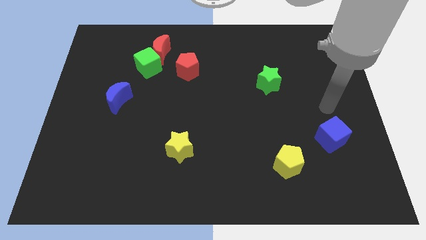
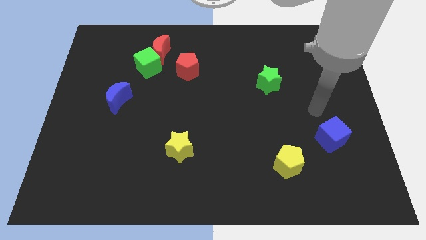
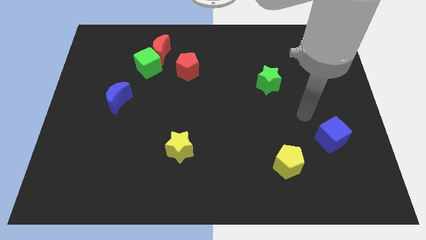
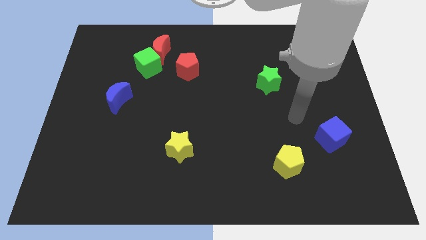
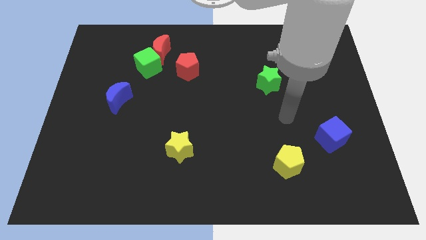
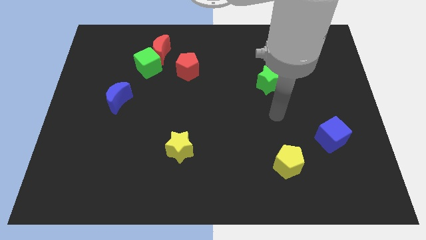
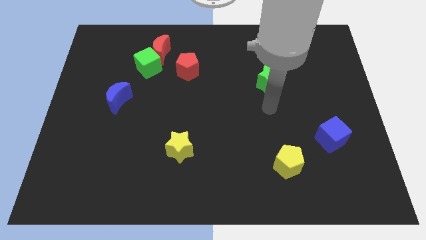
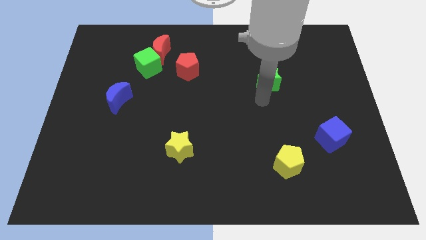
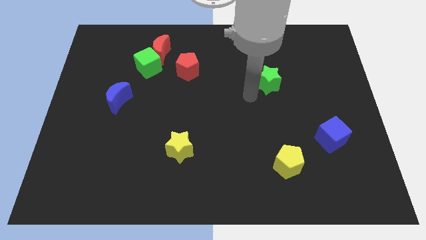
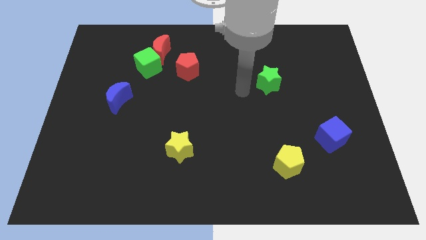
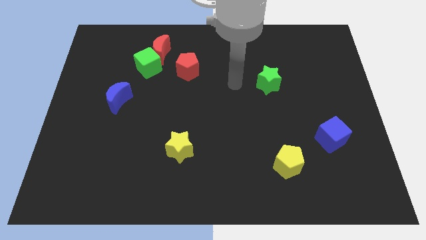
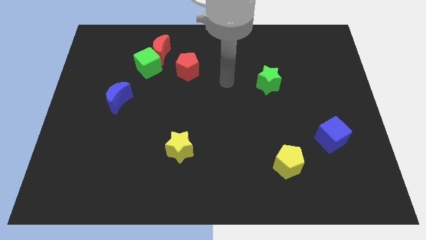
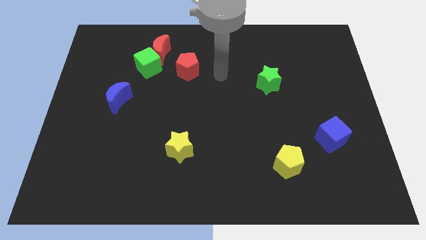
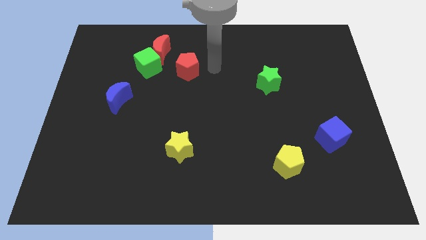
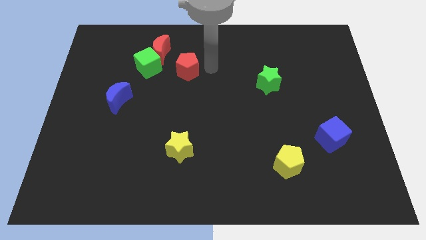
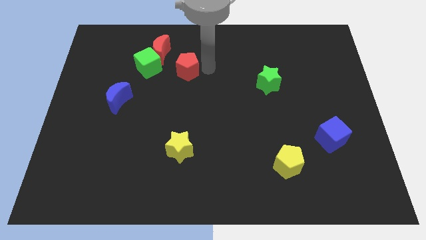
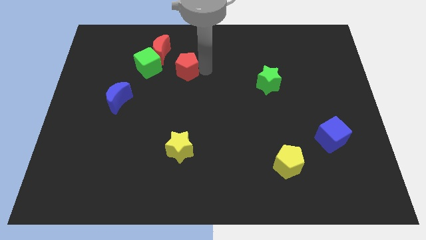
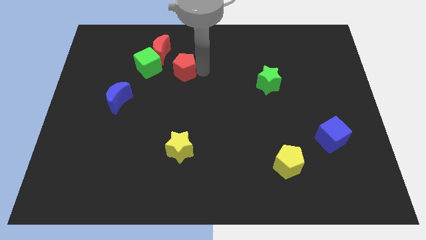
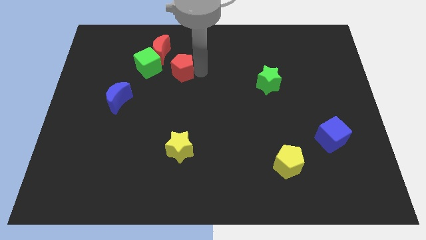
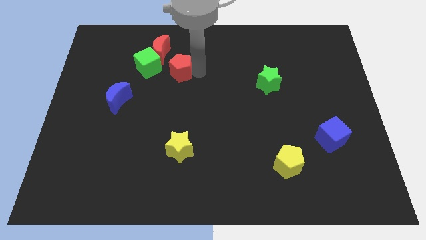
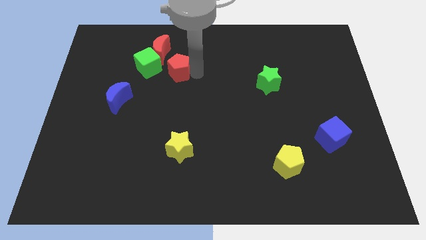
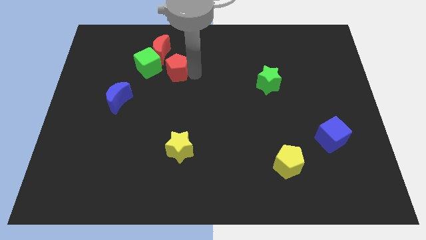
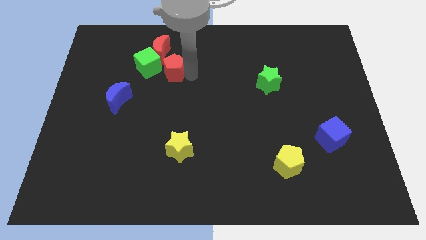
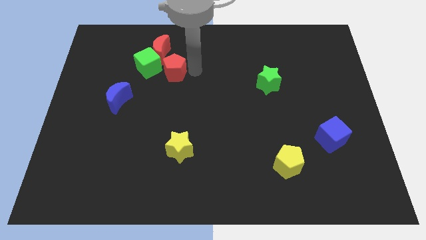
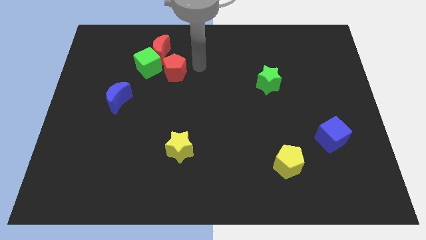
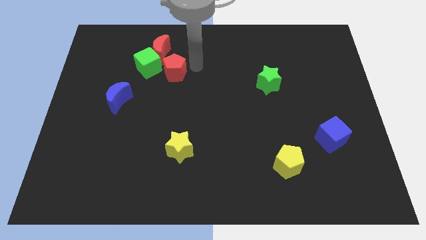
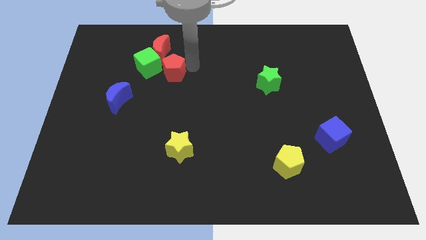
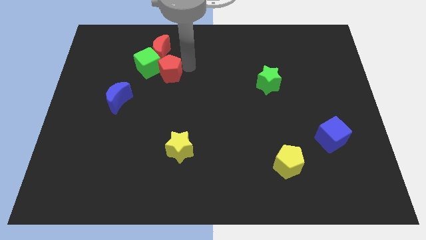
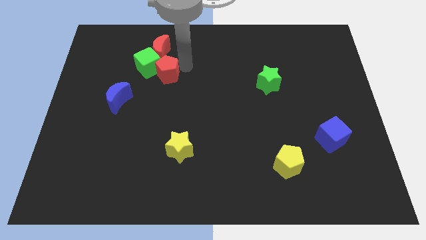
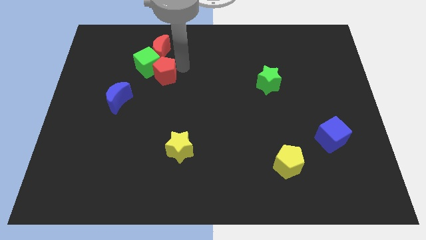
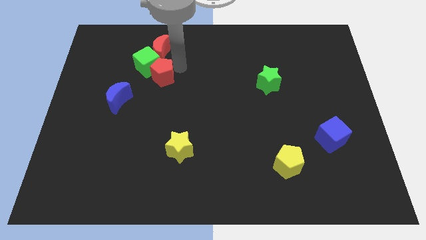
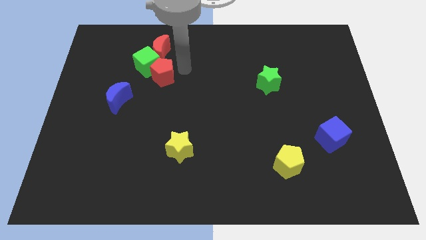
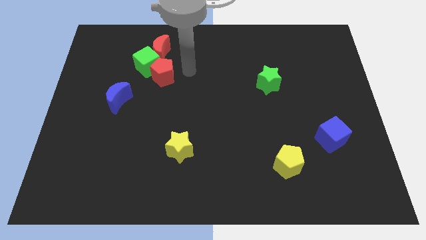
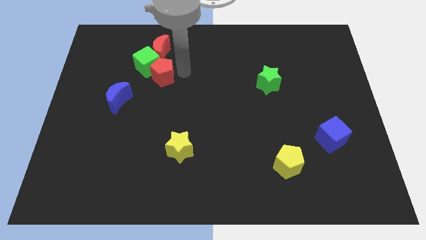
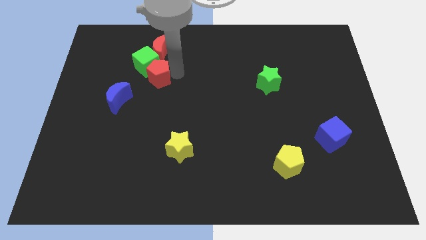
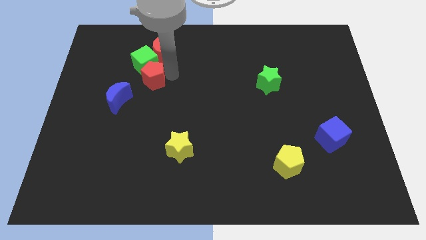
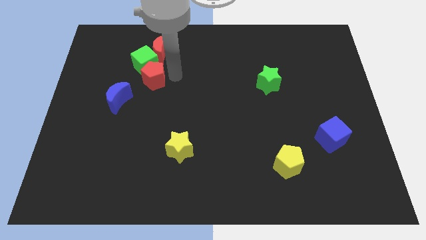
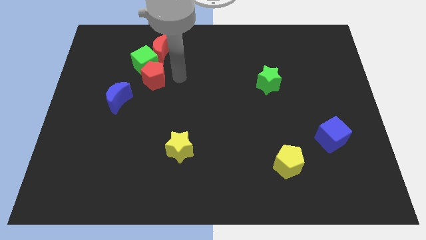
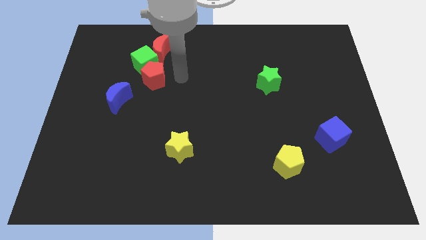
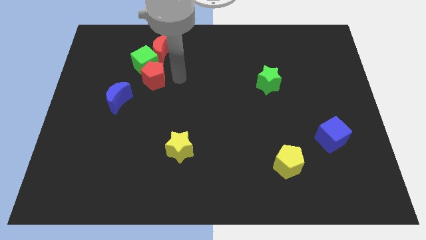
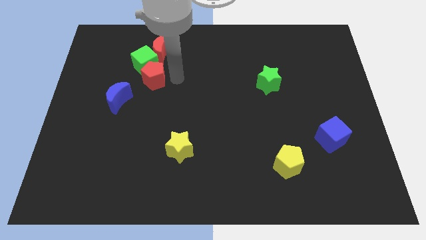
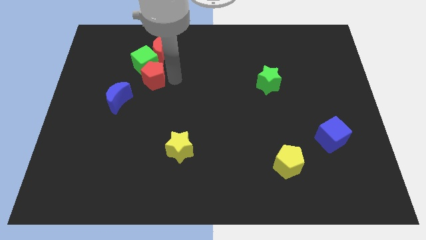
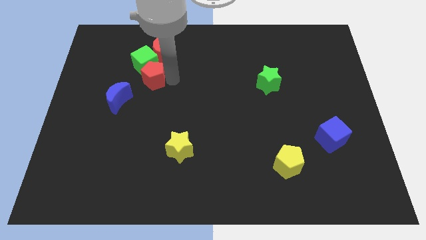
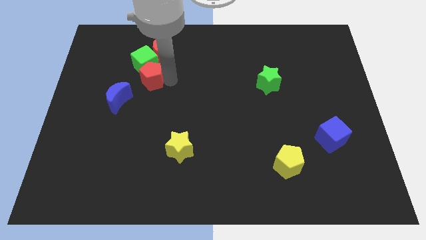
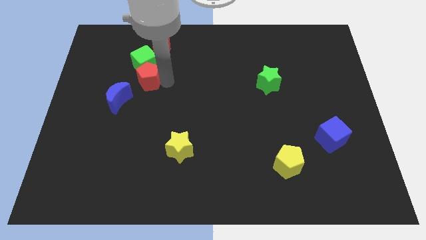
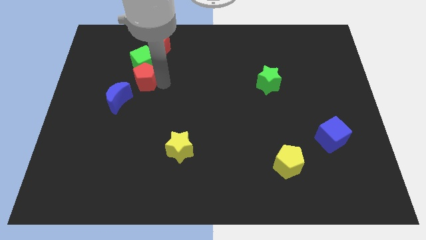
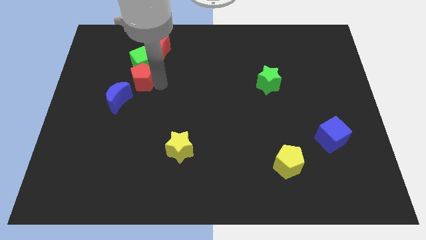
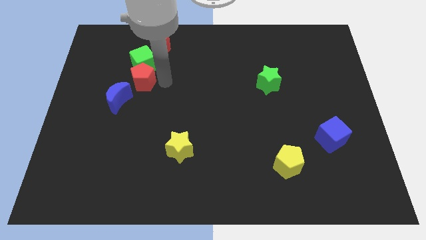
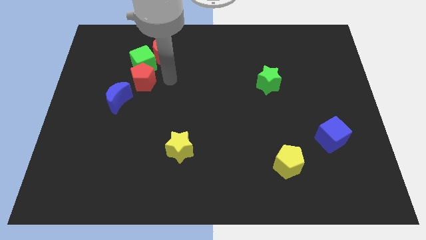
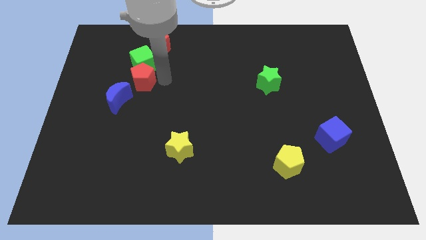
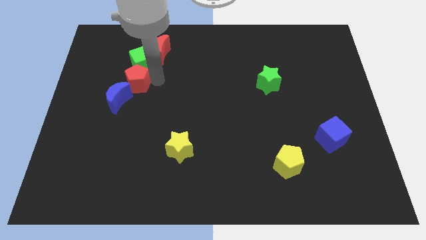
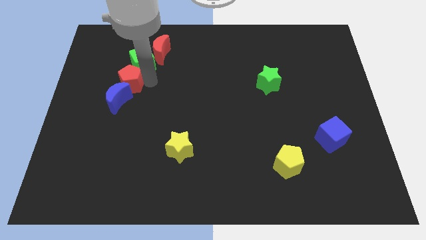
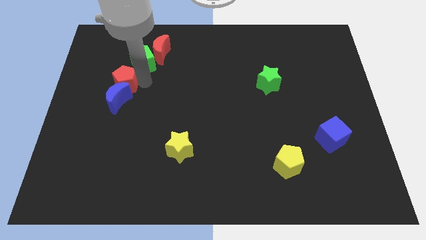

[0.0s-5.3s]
push the red pentagon diagonally up and to the left of the blue moon

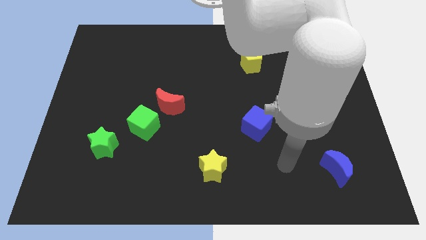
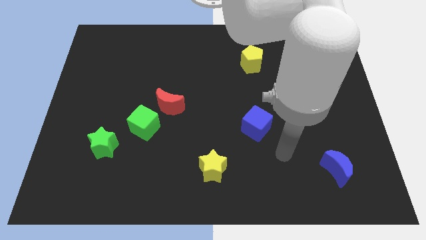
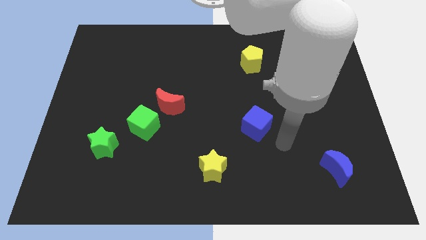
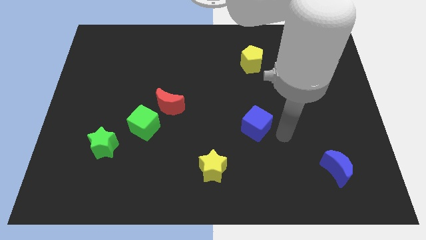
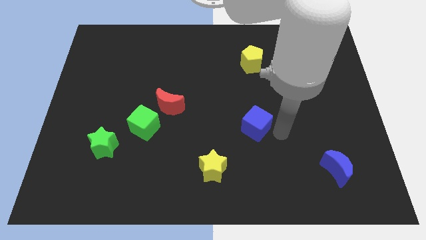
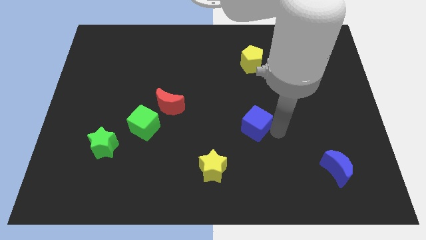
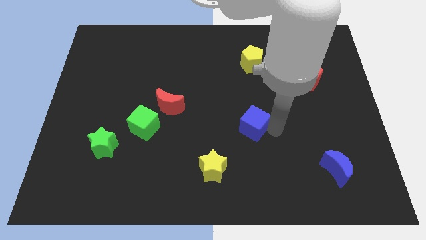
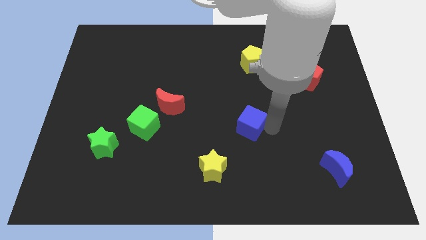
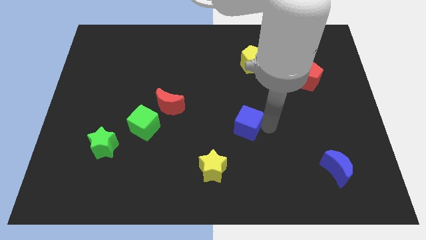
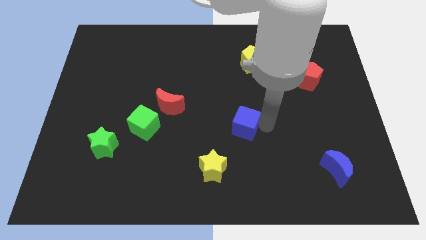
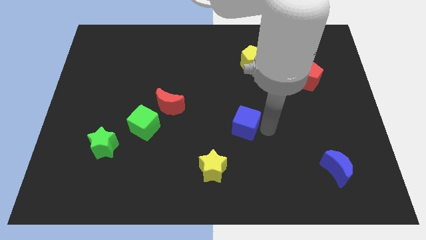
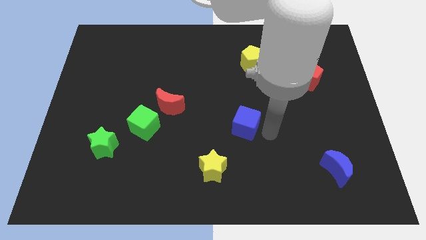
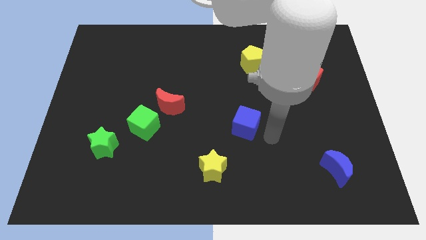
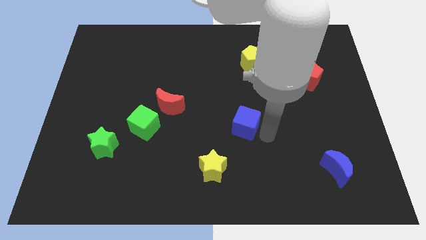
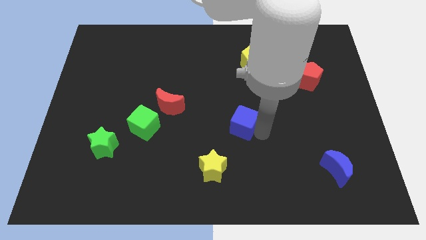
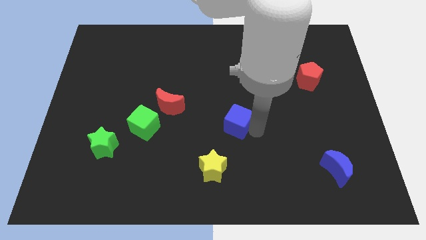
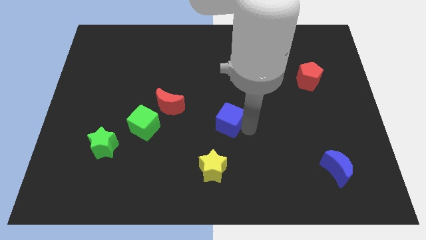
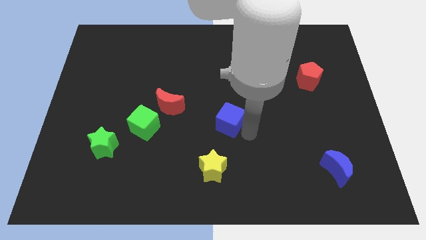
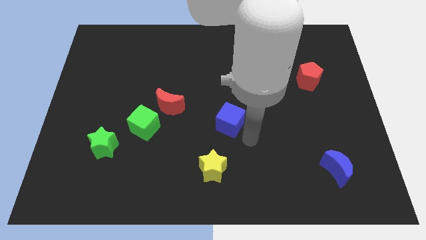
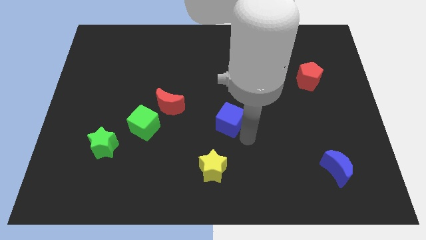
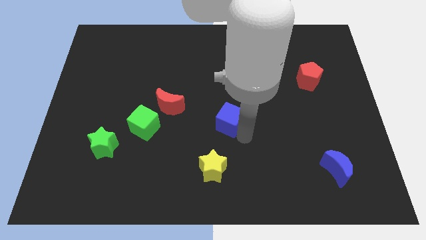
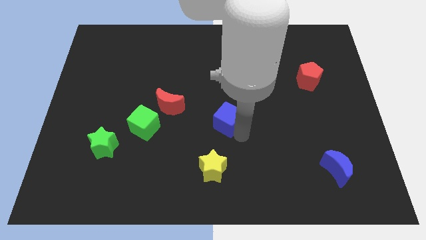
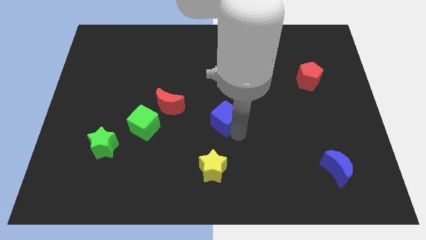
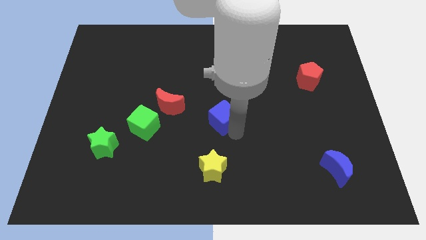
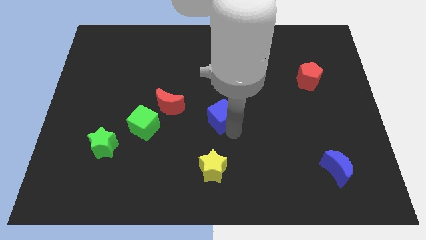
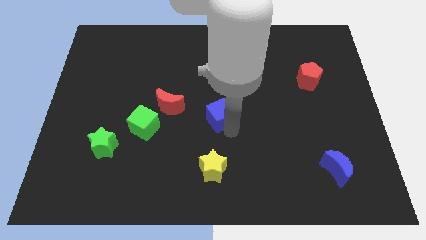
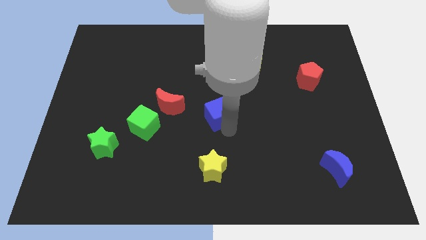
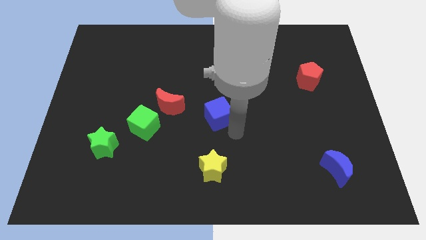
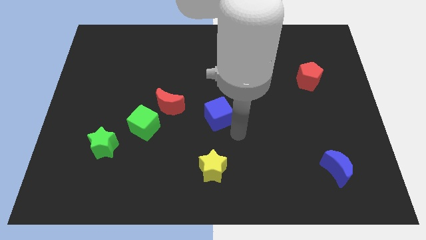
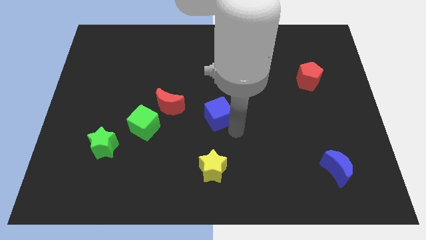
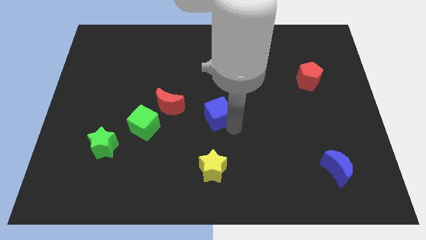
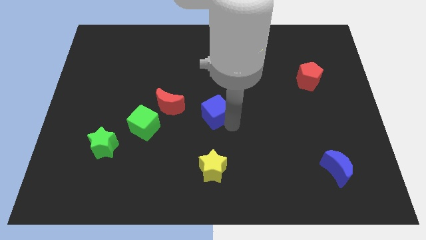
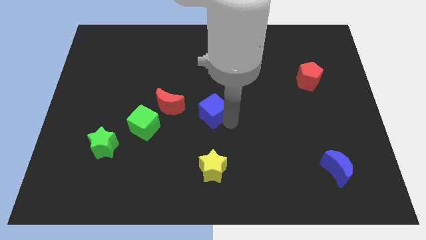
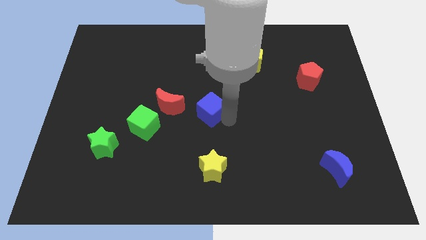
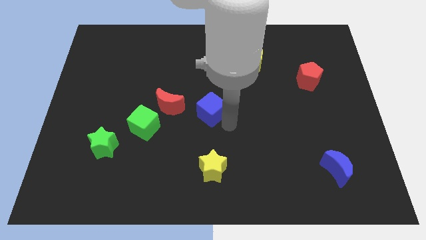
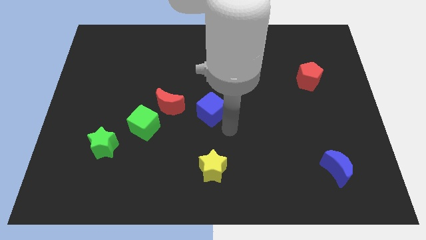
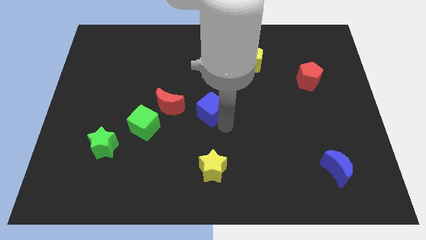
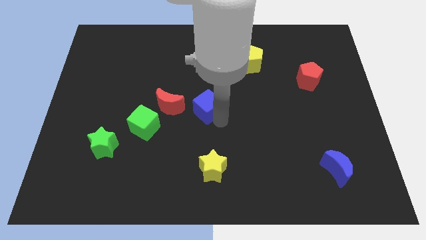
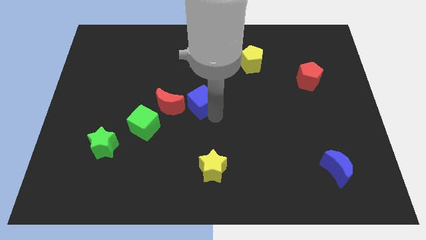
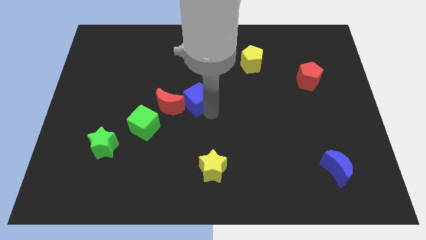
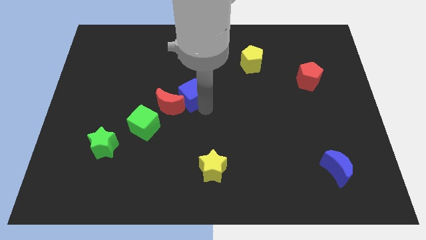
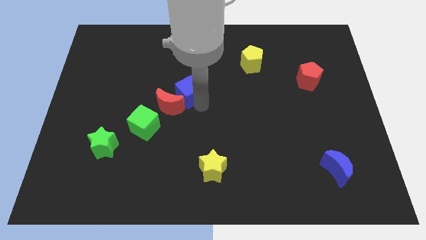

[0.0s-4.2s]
slide the blue cube to the top side of the red moon
